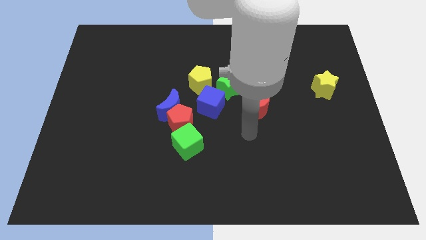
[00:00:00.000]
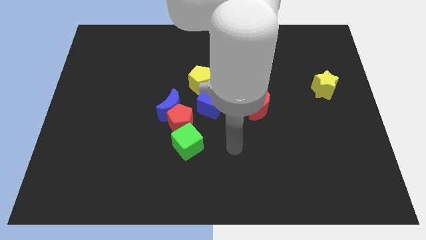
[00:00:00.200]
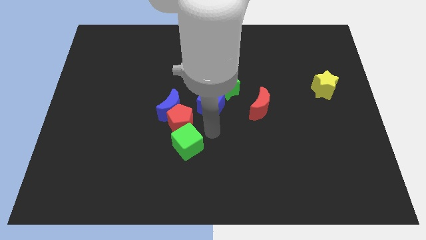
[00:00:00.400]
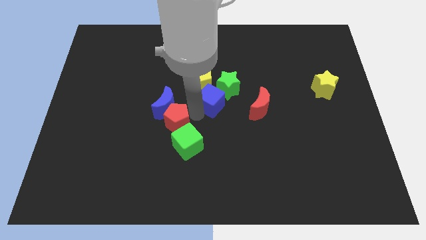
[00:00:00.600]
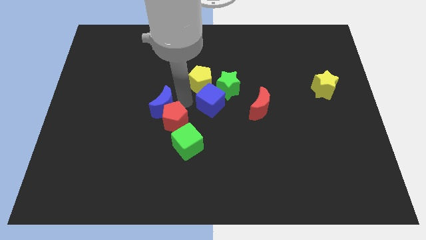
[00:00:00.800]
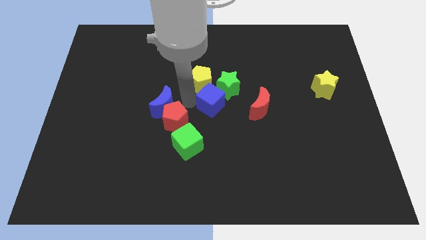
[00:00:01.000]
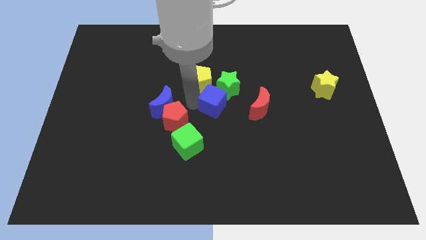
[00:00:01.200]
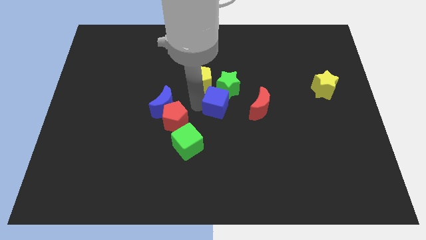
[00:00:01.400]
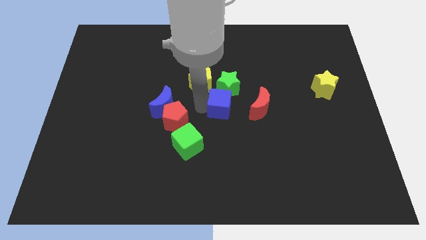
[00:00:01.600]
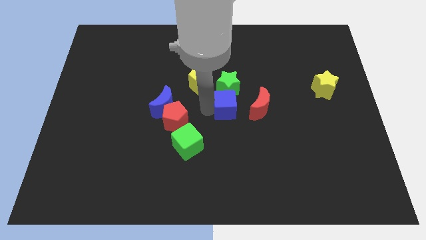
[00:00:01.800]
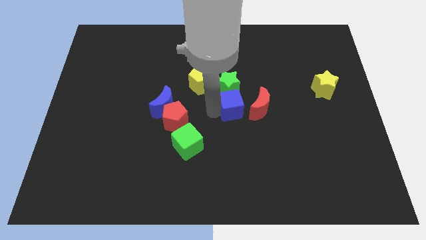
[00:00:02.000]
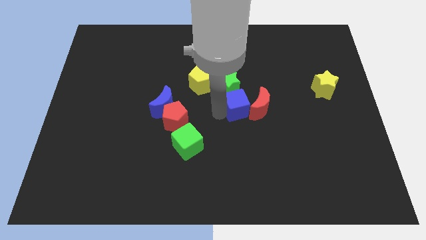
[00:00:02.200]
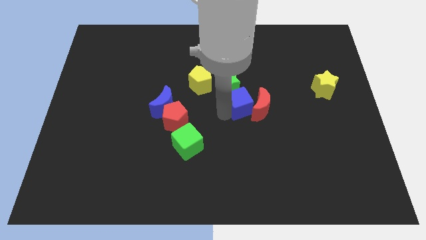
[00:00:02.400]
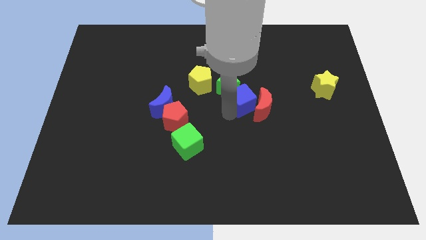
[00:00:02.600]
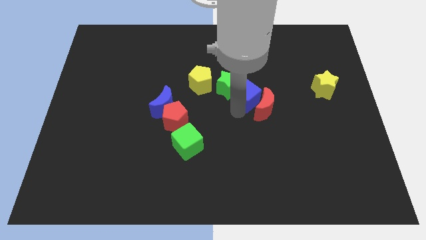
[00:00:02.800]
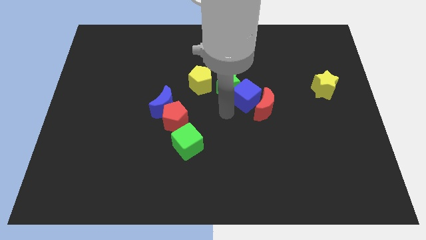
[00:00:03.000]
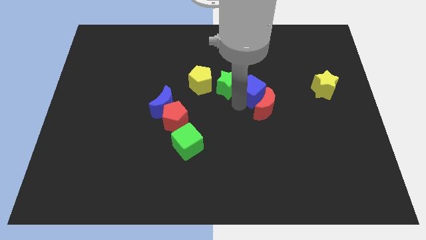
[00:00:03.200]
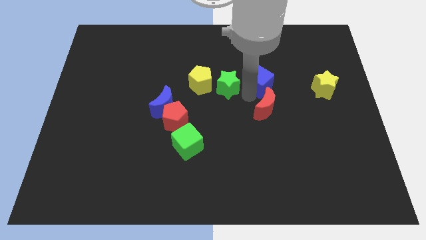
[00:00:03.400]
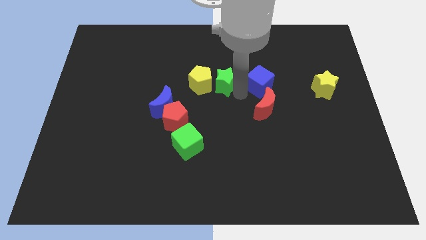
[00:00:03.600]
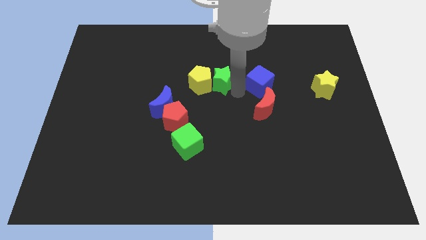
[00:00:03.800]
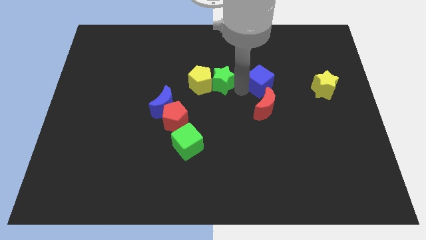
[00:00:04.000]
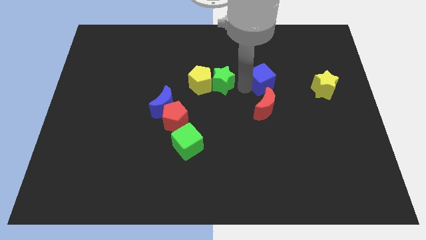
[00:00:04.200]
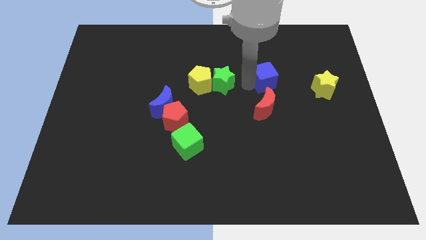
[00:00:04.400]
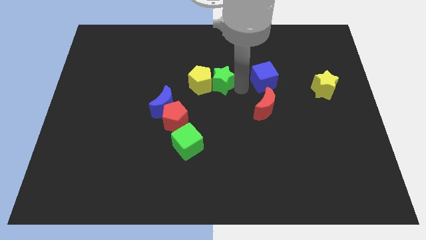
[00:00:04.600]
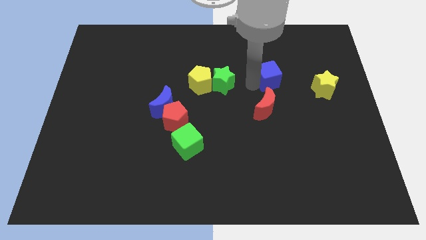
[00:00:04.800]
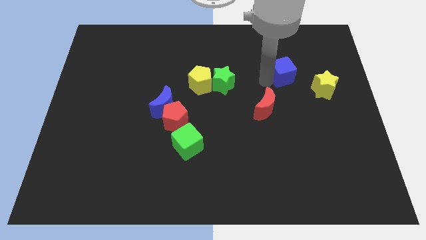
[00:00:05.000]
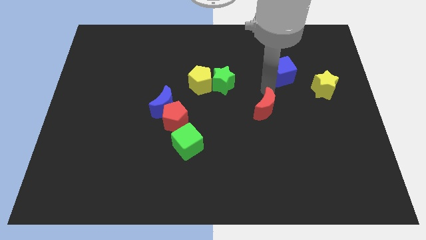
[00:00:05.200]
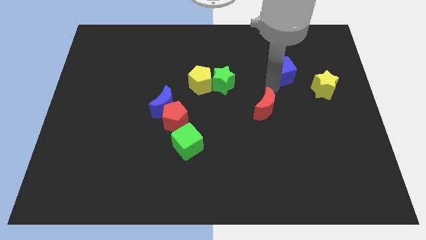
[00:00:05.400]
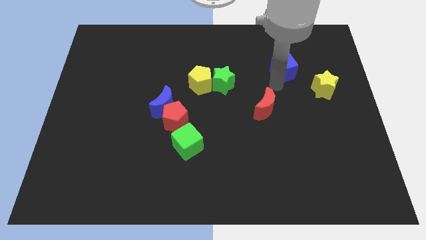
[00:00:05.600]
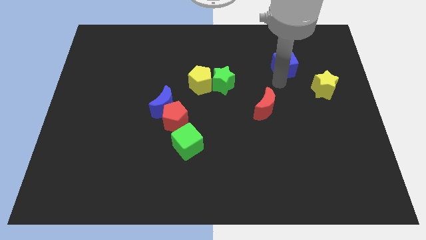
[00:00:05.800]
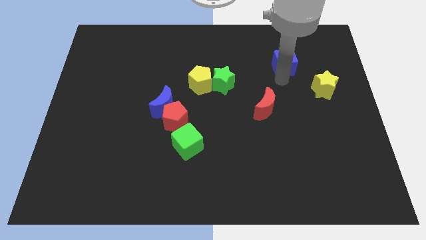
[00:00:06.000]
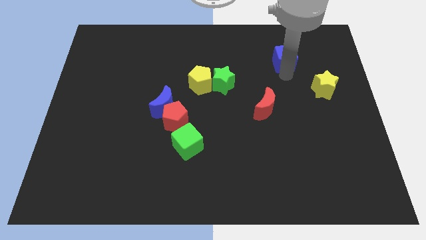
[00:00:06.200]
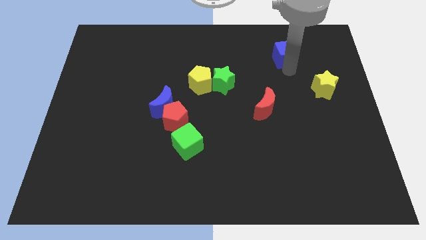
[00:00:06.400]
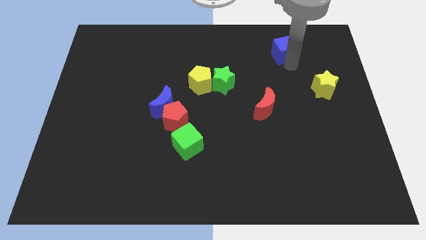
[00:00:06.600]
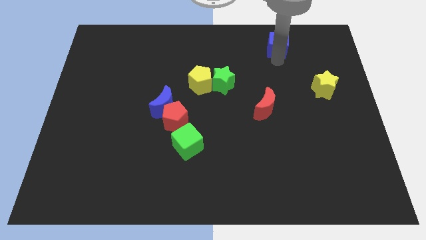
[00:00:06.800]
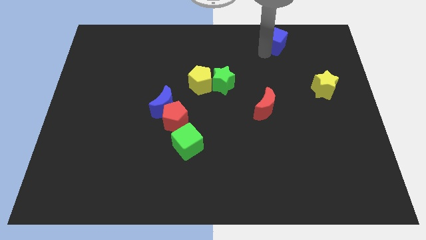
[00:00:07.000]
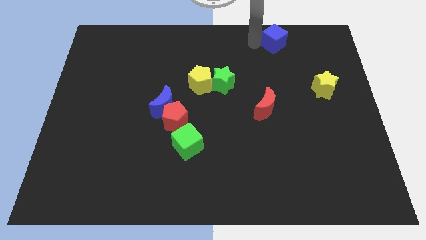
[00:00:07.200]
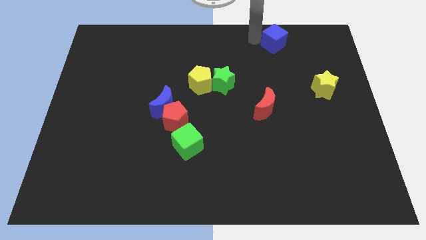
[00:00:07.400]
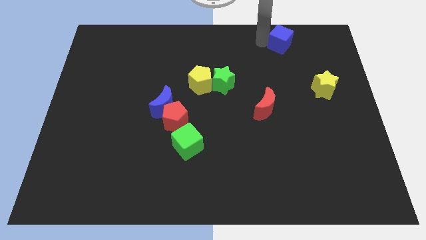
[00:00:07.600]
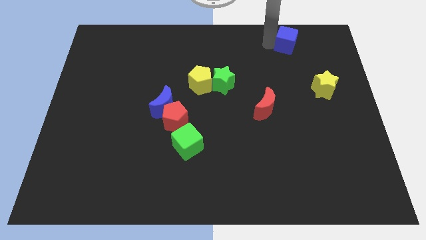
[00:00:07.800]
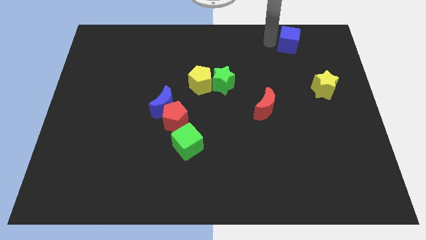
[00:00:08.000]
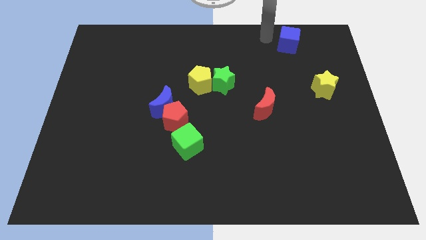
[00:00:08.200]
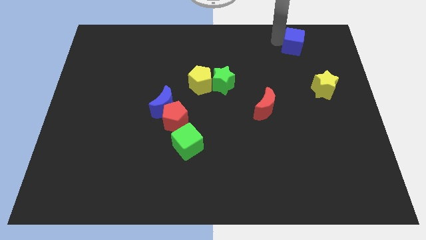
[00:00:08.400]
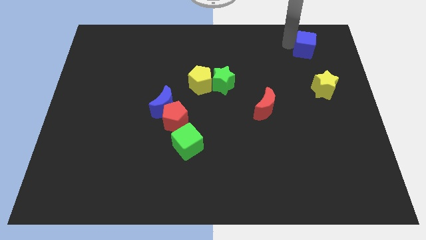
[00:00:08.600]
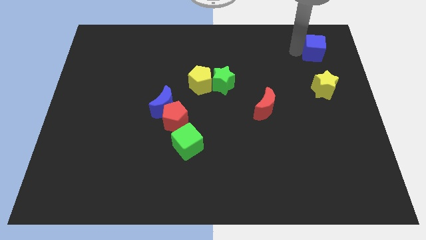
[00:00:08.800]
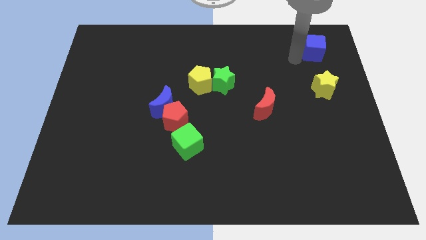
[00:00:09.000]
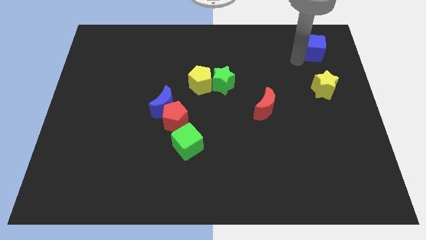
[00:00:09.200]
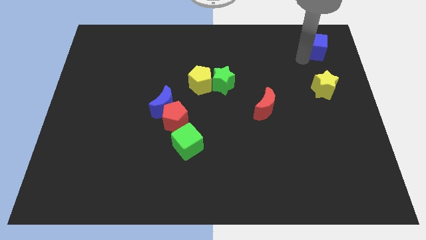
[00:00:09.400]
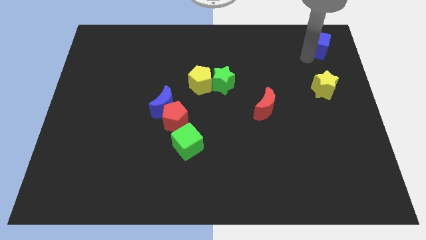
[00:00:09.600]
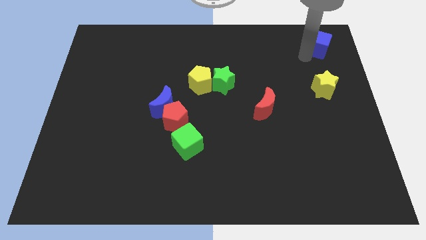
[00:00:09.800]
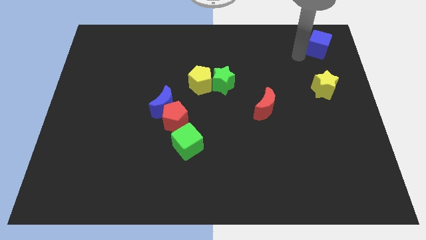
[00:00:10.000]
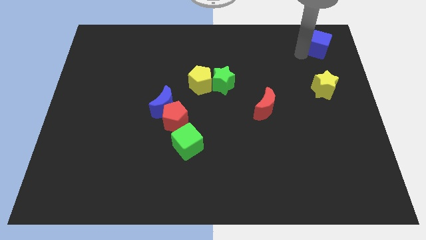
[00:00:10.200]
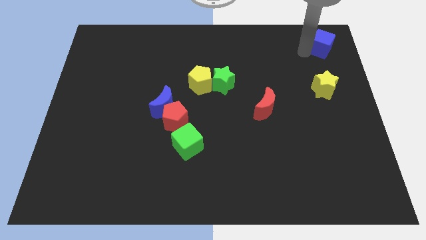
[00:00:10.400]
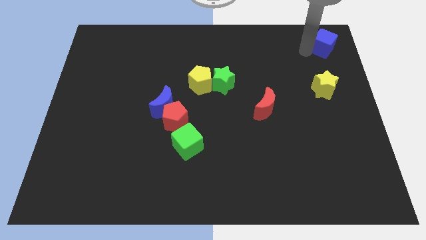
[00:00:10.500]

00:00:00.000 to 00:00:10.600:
move the blue cube to the top right of the board

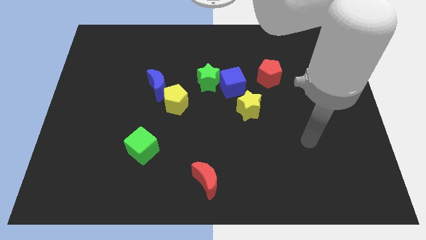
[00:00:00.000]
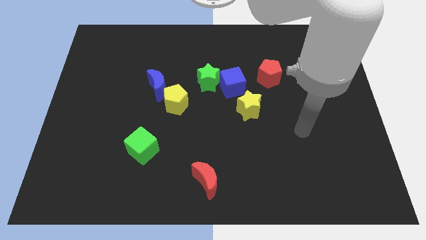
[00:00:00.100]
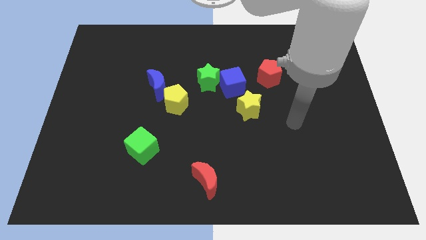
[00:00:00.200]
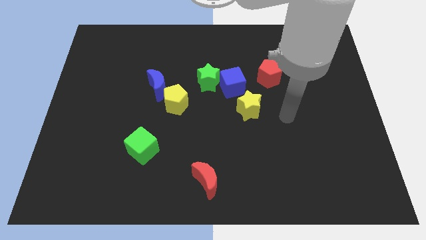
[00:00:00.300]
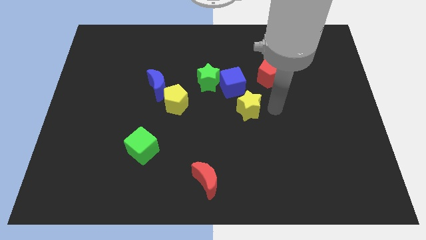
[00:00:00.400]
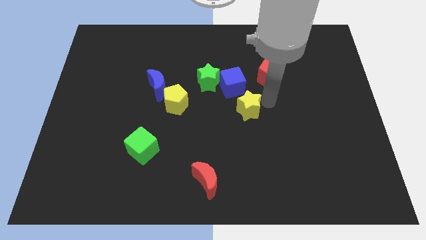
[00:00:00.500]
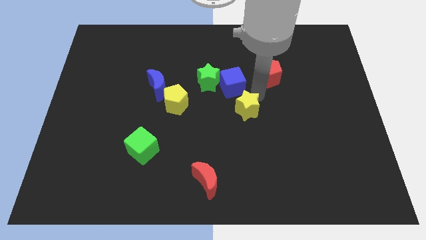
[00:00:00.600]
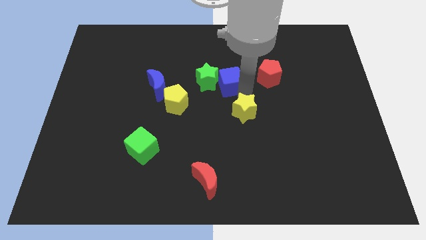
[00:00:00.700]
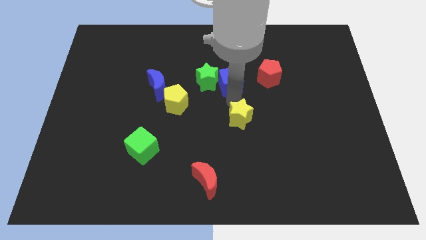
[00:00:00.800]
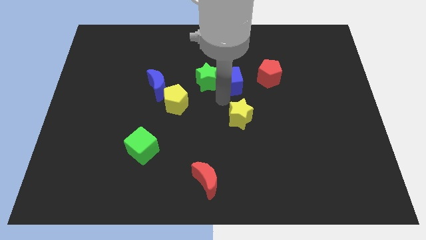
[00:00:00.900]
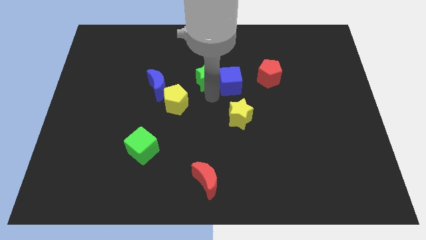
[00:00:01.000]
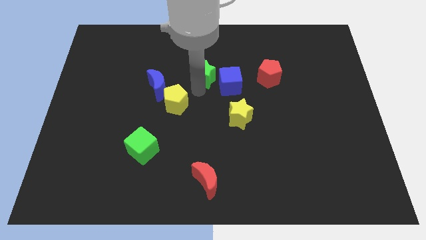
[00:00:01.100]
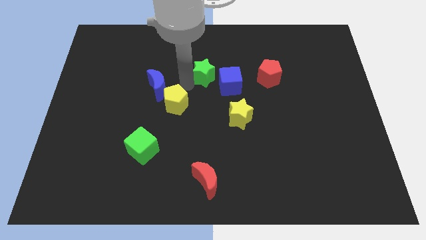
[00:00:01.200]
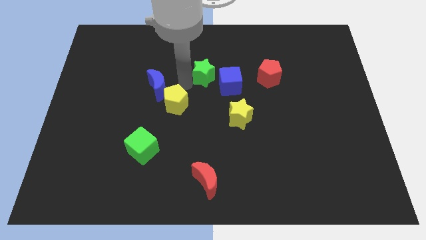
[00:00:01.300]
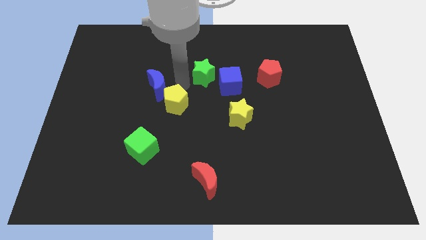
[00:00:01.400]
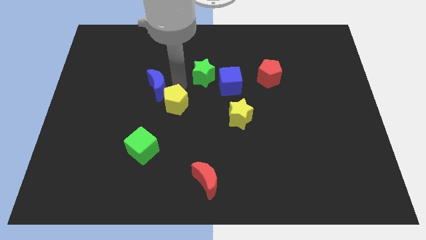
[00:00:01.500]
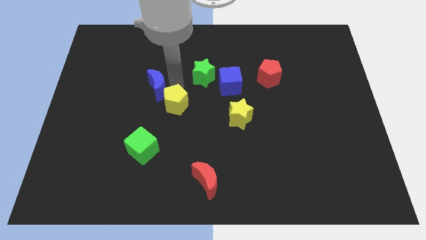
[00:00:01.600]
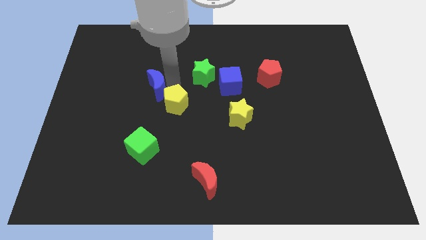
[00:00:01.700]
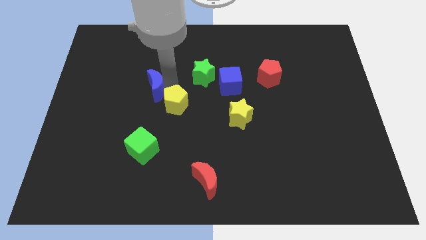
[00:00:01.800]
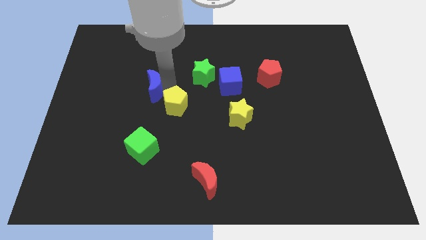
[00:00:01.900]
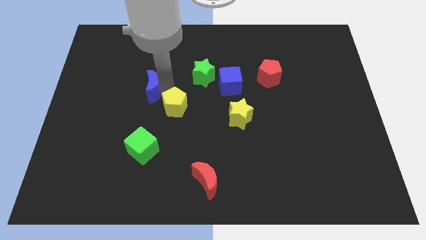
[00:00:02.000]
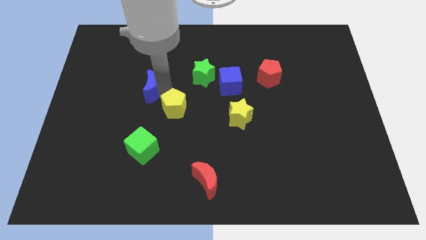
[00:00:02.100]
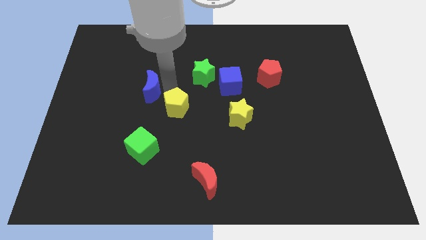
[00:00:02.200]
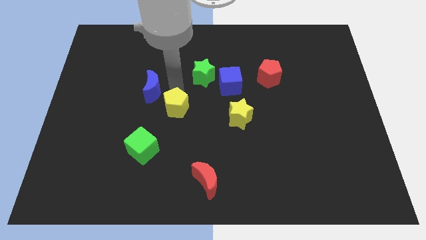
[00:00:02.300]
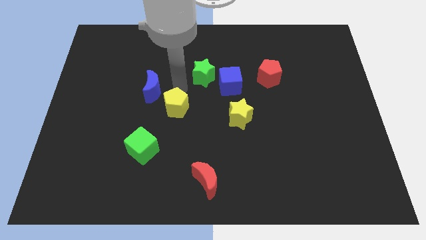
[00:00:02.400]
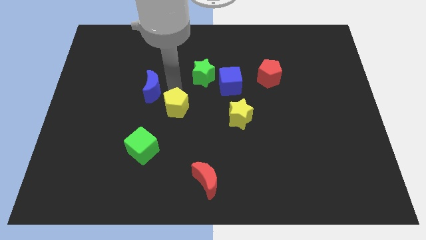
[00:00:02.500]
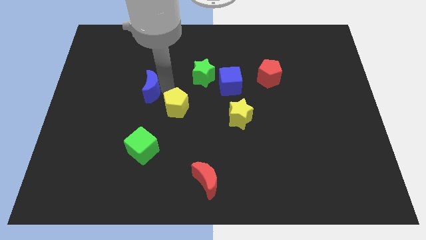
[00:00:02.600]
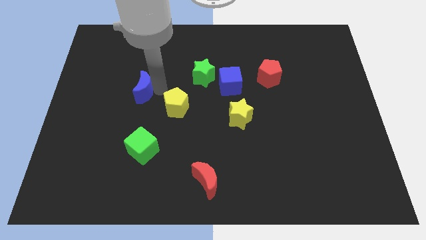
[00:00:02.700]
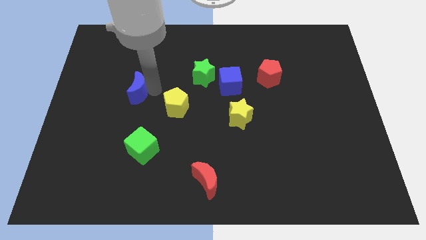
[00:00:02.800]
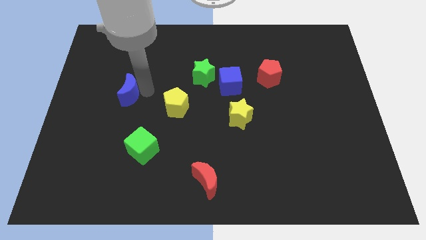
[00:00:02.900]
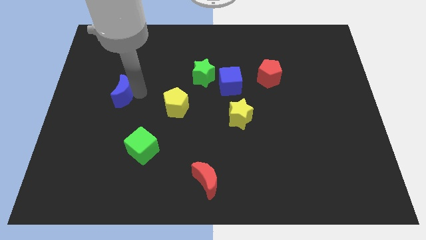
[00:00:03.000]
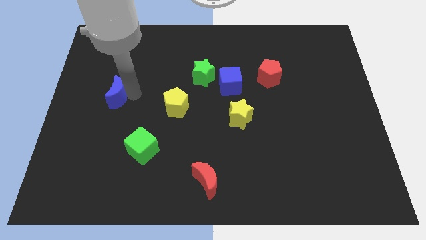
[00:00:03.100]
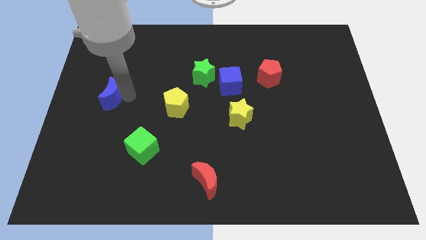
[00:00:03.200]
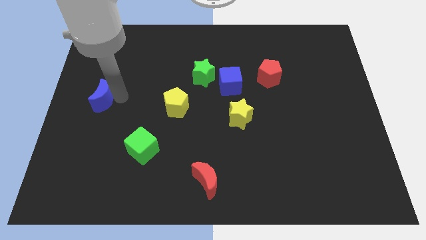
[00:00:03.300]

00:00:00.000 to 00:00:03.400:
move the blue moon to the center left
